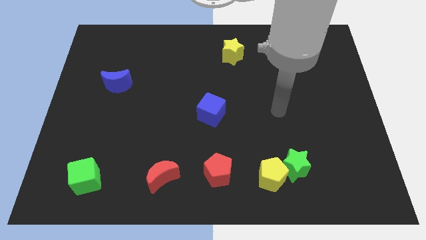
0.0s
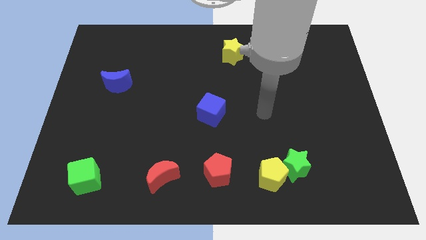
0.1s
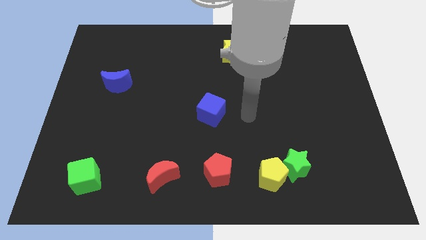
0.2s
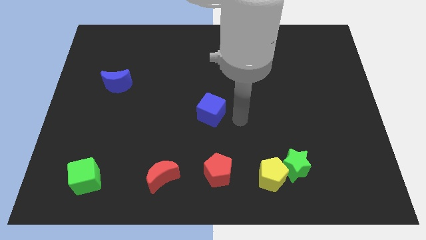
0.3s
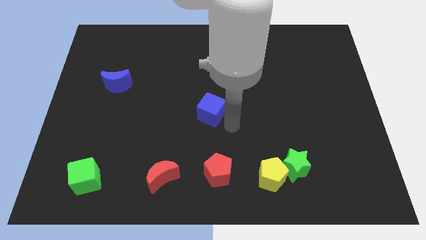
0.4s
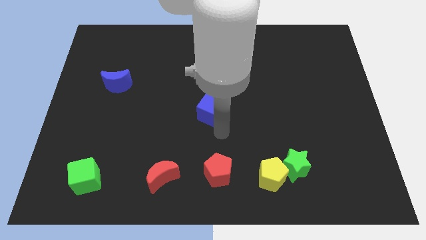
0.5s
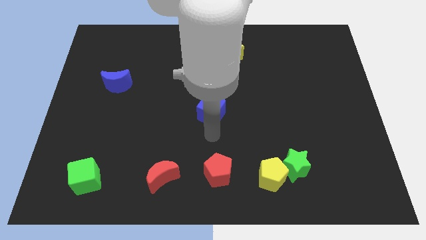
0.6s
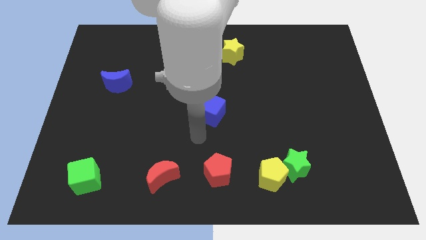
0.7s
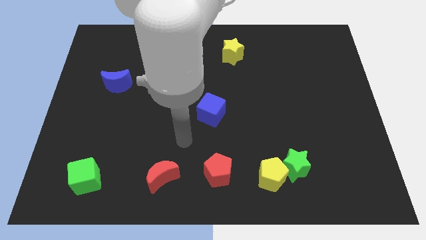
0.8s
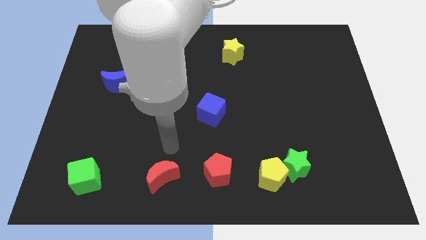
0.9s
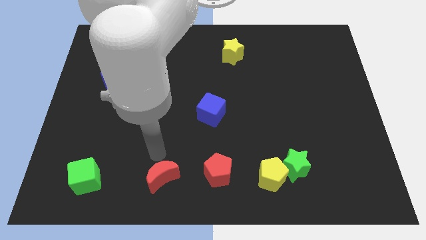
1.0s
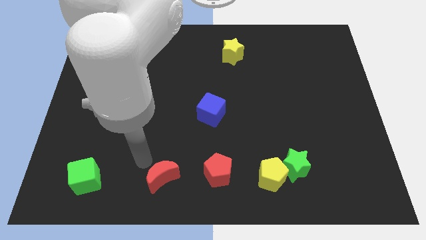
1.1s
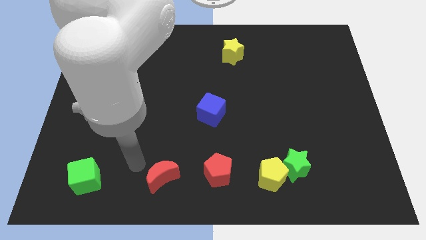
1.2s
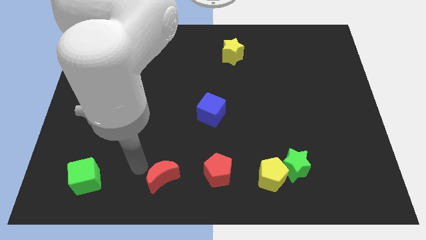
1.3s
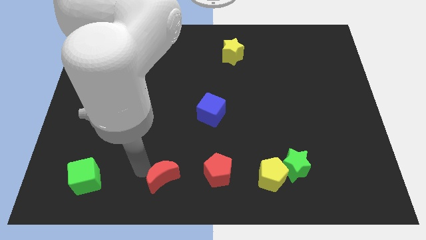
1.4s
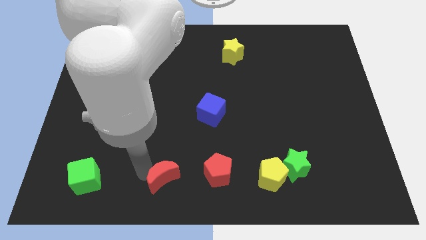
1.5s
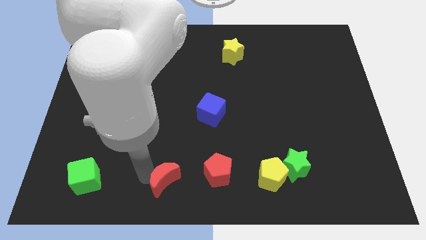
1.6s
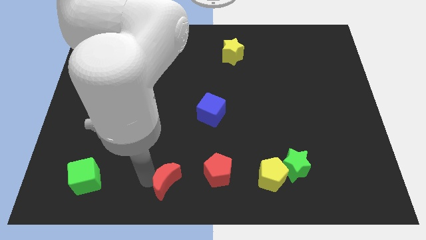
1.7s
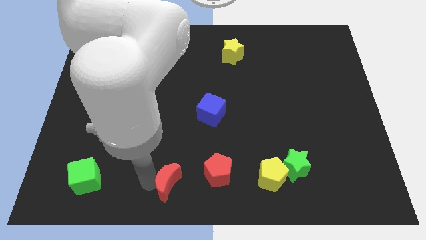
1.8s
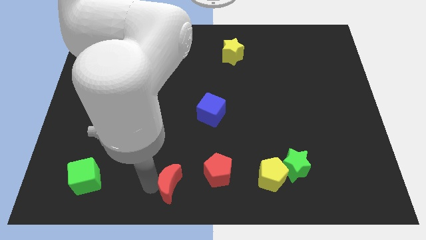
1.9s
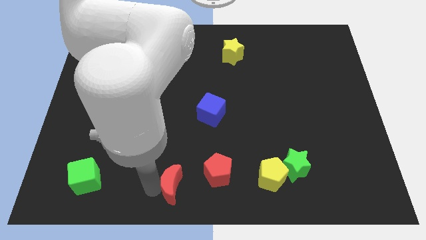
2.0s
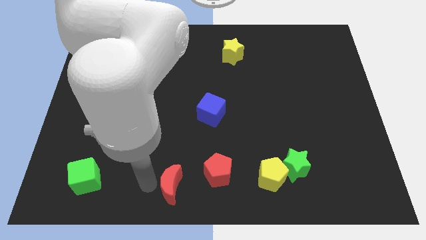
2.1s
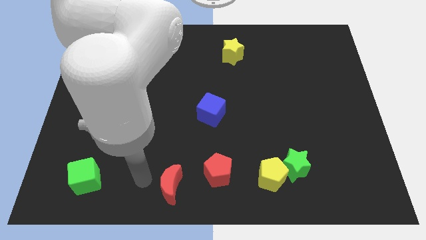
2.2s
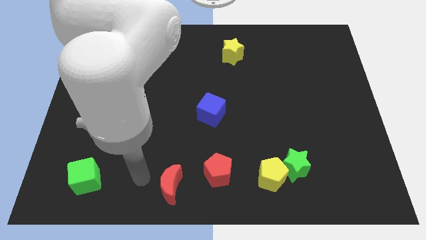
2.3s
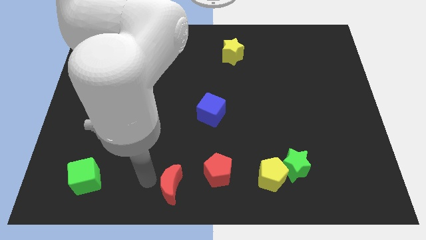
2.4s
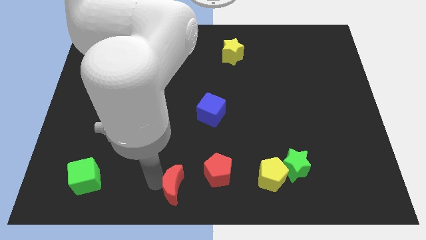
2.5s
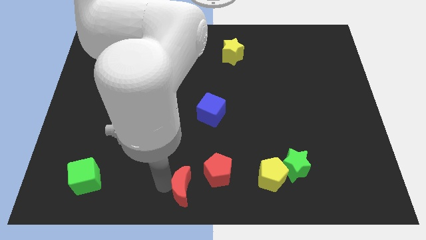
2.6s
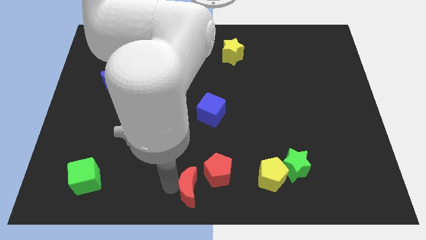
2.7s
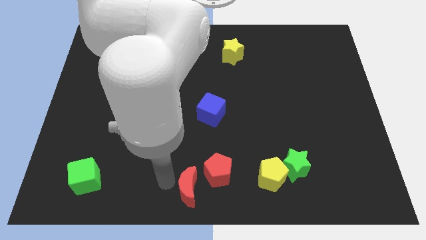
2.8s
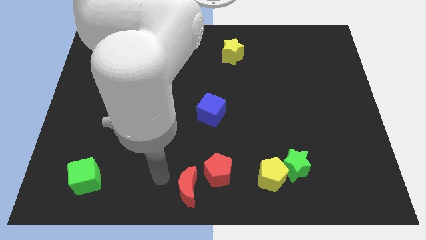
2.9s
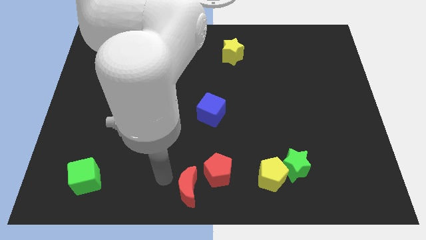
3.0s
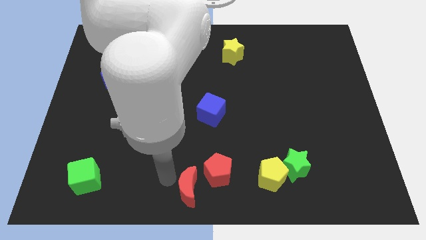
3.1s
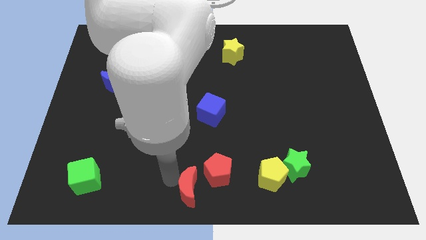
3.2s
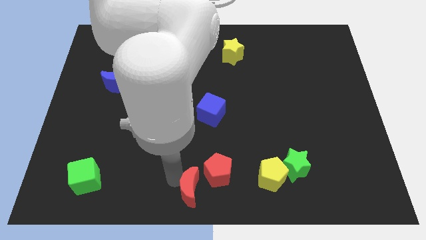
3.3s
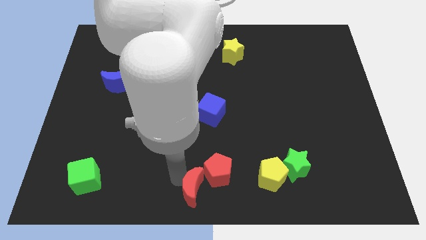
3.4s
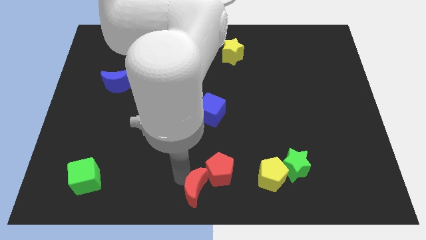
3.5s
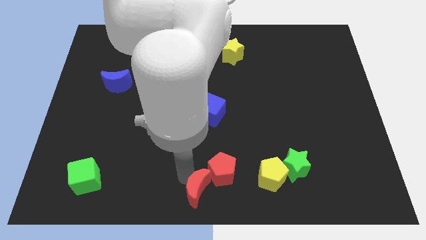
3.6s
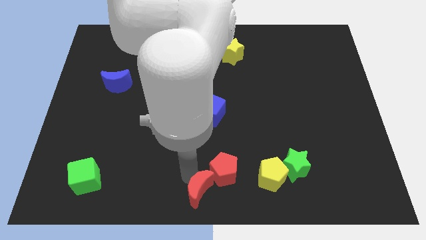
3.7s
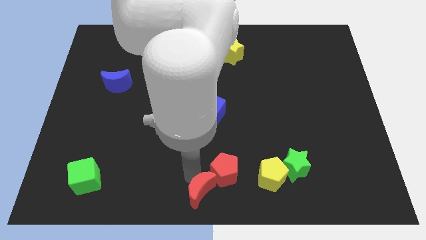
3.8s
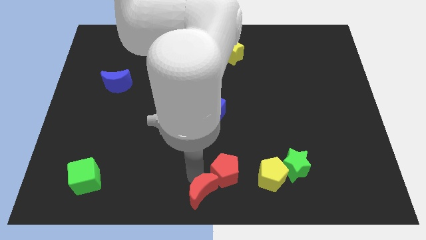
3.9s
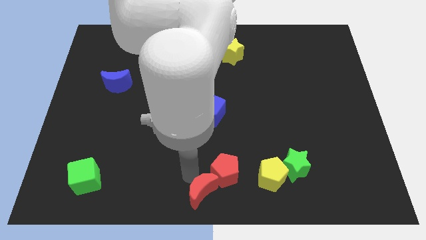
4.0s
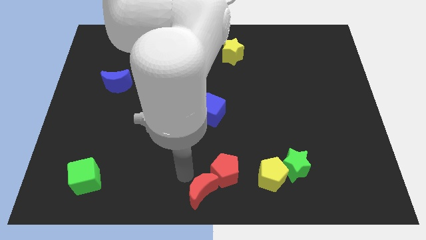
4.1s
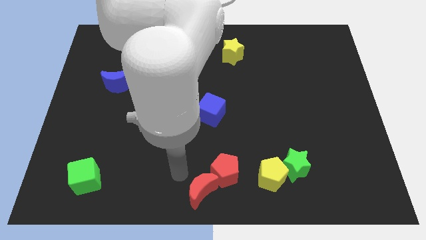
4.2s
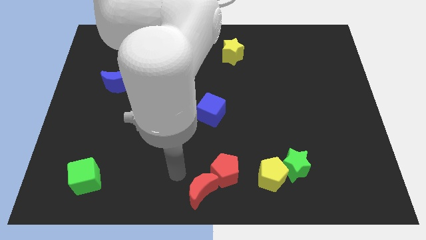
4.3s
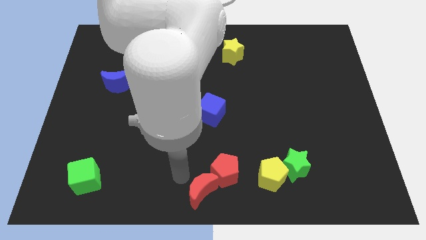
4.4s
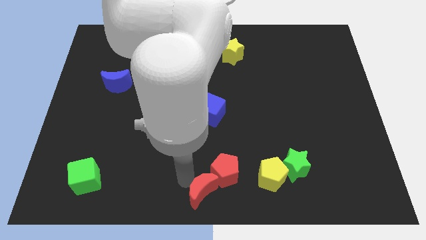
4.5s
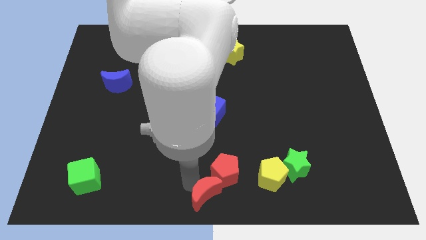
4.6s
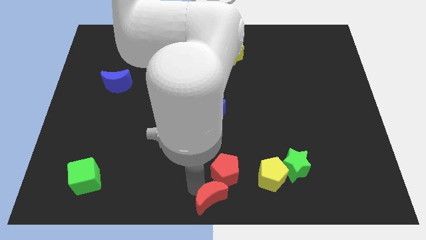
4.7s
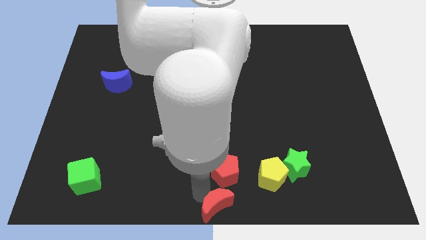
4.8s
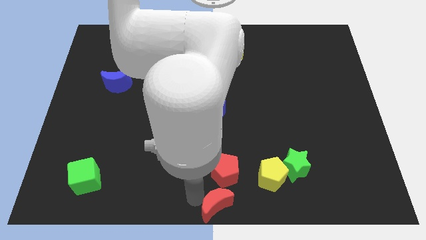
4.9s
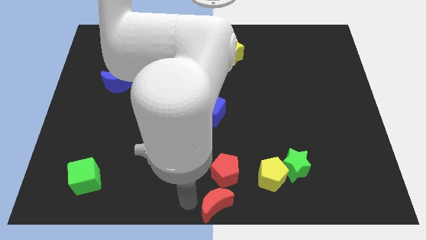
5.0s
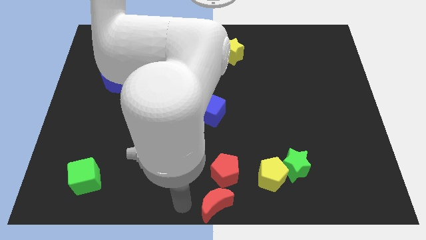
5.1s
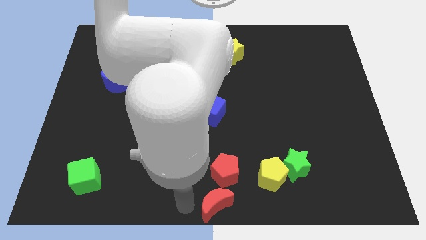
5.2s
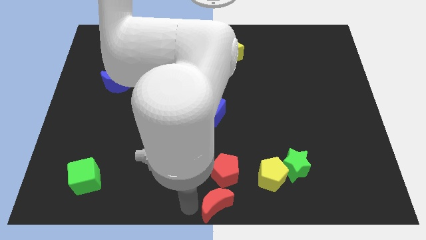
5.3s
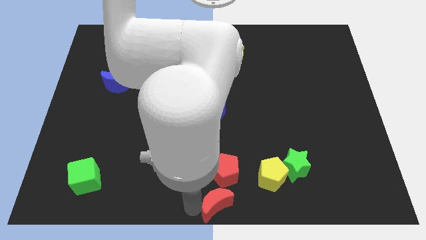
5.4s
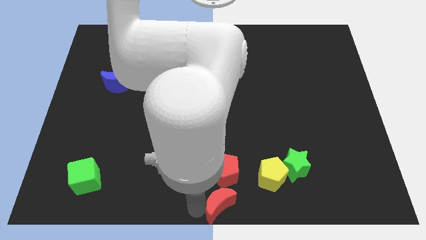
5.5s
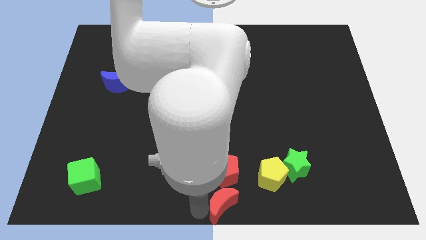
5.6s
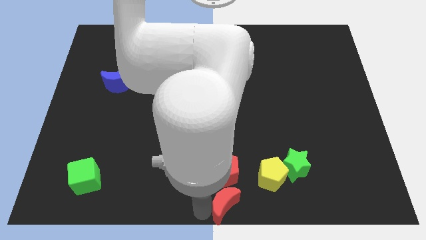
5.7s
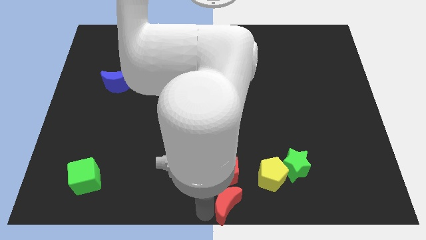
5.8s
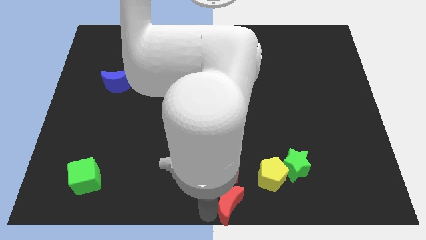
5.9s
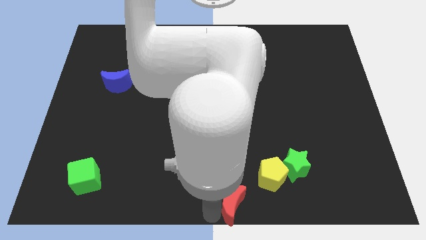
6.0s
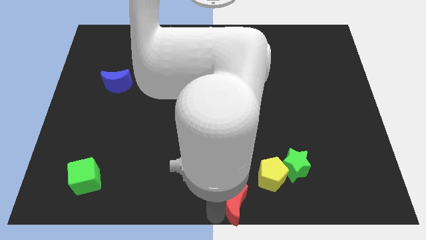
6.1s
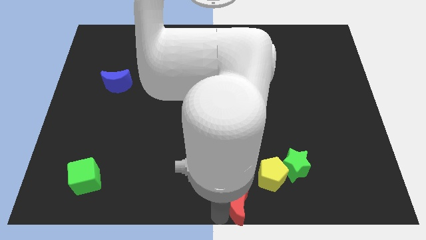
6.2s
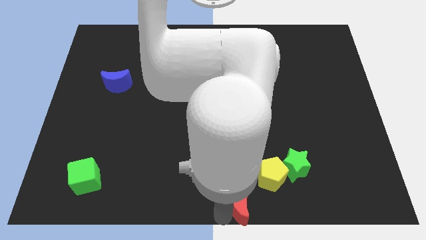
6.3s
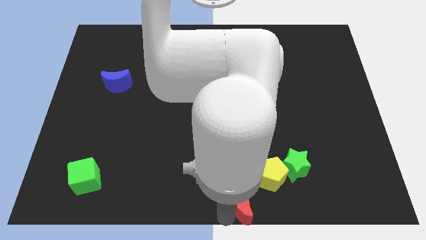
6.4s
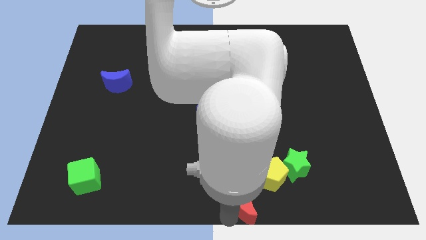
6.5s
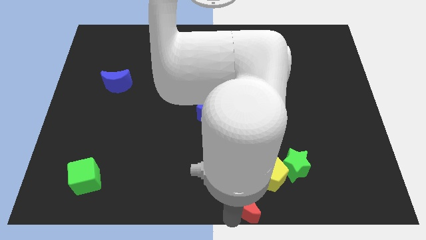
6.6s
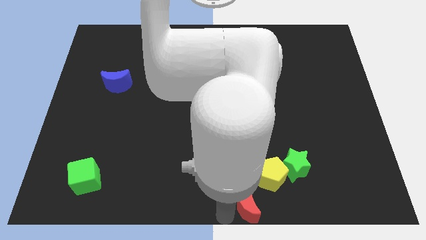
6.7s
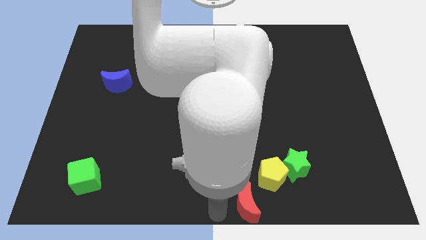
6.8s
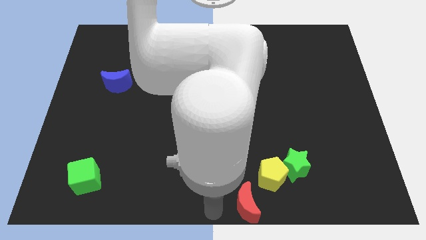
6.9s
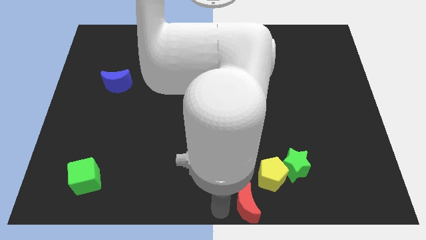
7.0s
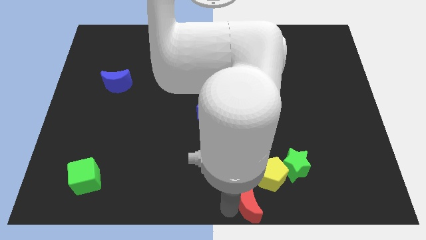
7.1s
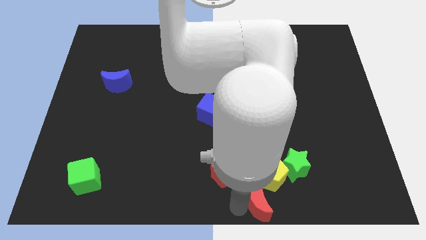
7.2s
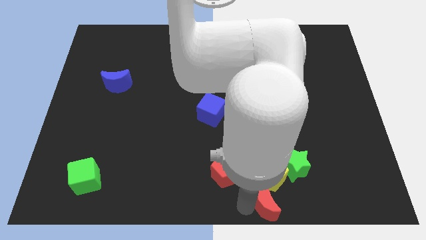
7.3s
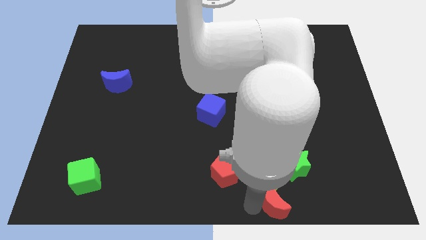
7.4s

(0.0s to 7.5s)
push the red moon to the right

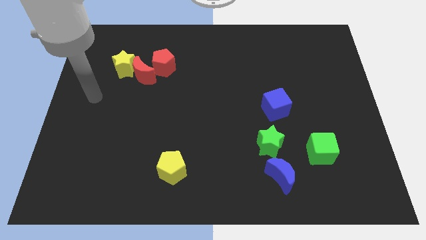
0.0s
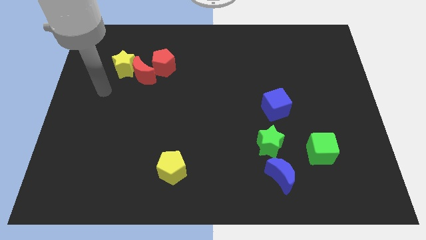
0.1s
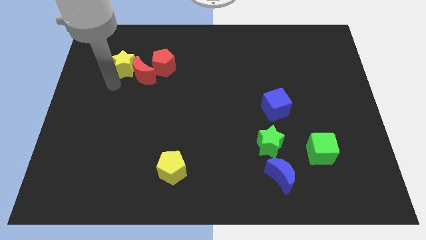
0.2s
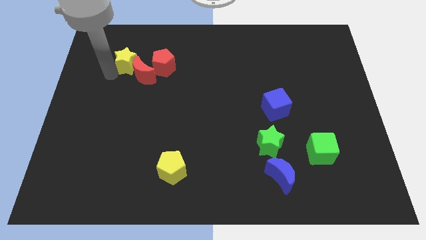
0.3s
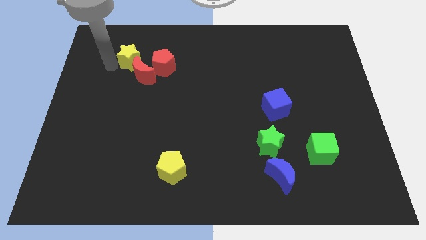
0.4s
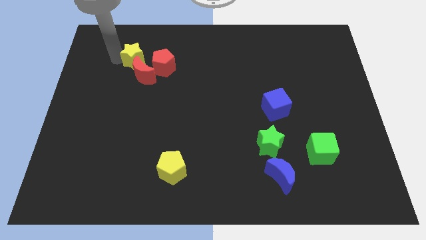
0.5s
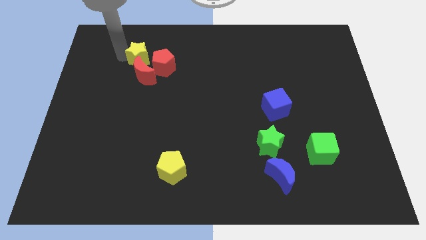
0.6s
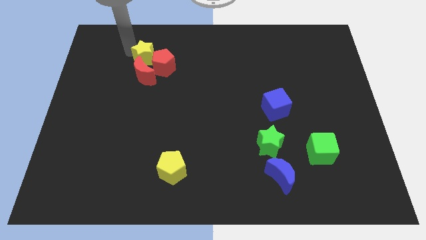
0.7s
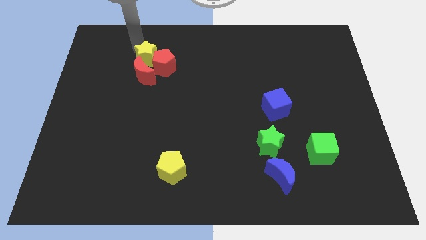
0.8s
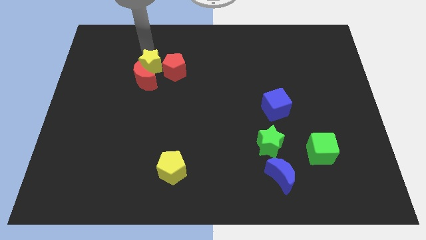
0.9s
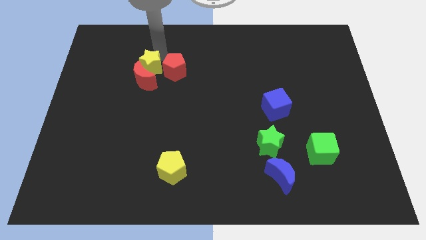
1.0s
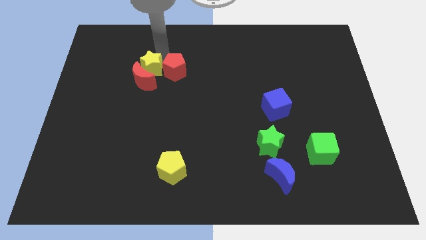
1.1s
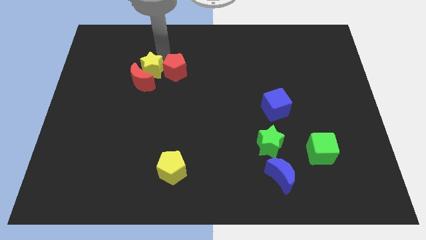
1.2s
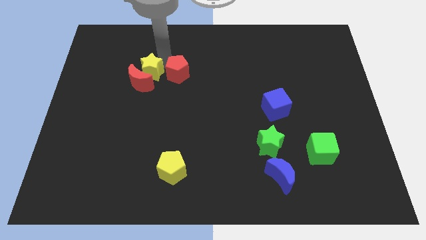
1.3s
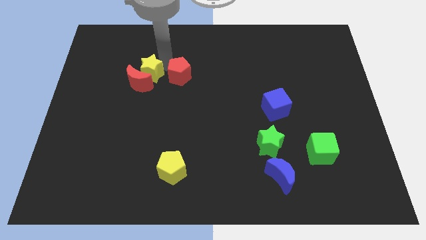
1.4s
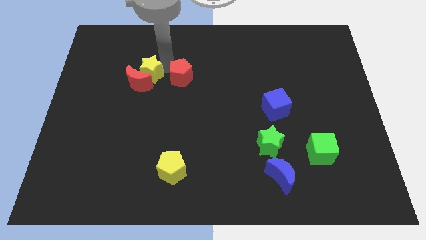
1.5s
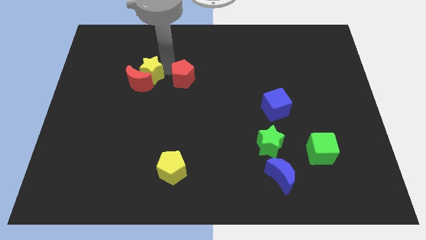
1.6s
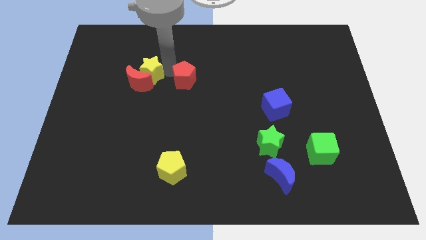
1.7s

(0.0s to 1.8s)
slide the red pentagon down and right a bit
